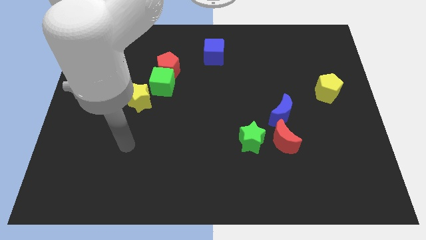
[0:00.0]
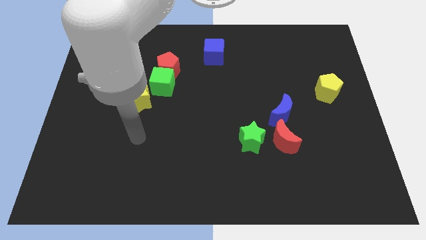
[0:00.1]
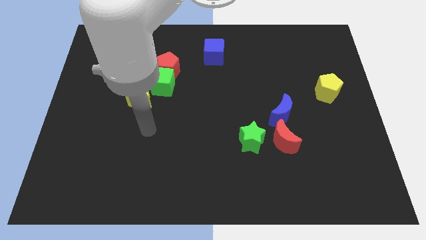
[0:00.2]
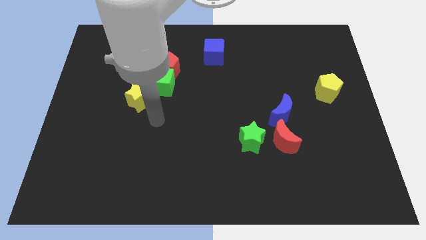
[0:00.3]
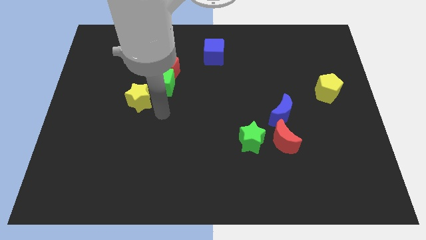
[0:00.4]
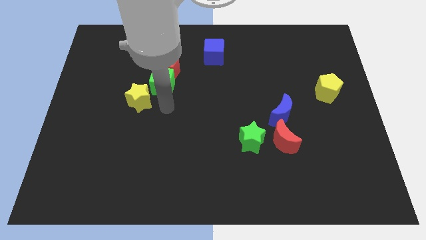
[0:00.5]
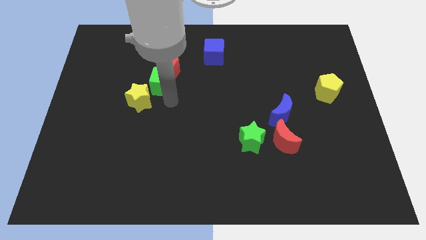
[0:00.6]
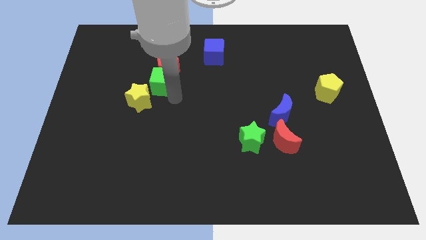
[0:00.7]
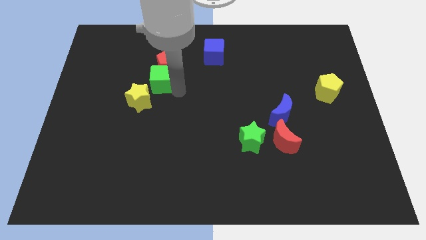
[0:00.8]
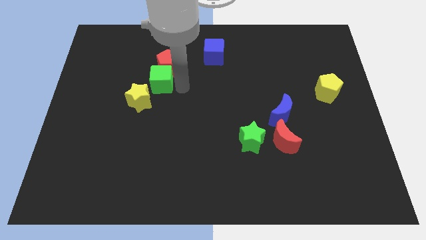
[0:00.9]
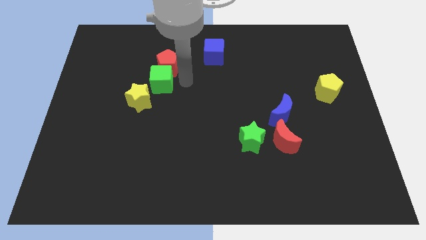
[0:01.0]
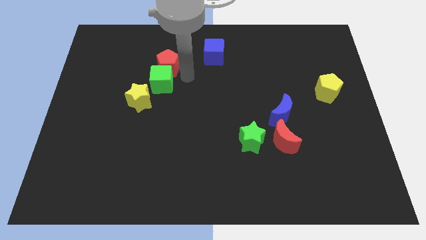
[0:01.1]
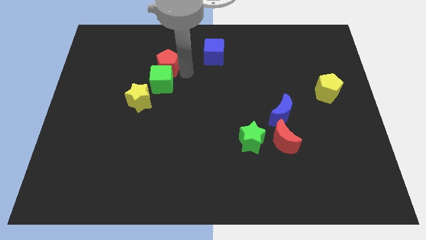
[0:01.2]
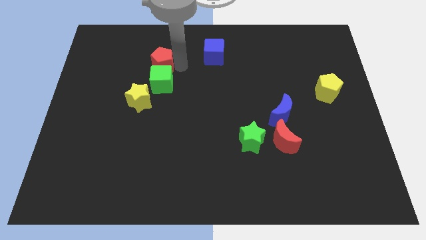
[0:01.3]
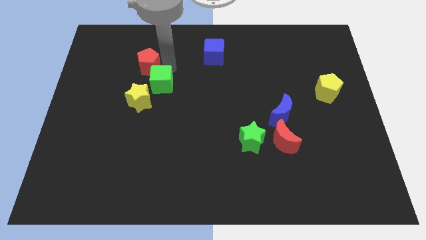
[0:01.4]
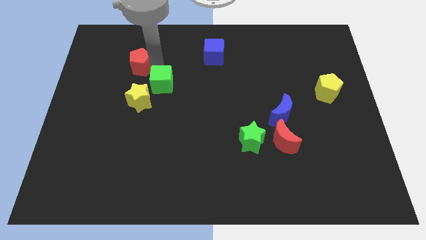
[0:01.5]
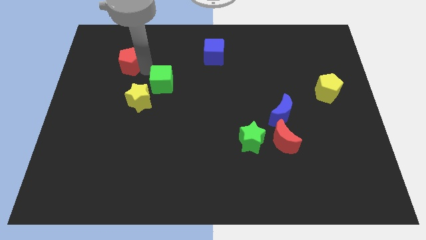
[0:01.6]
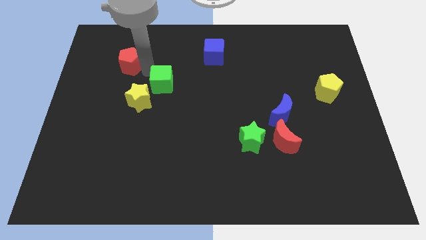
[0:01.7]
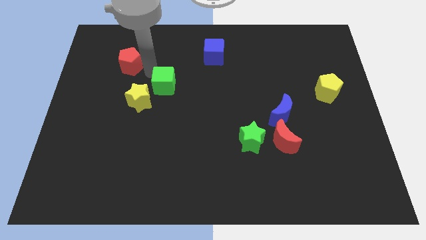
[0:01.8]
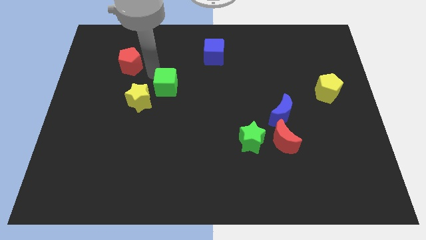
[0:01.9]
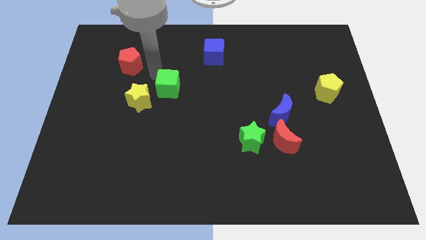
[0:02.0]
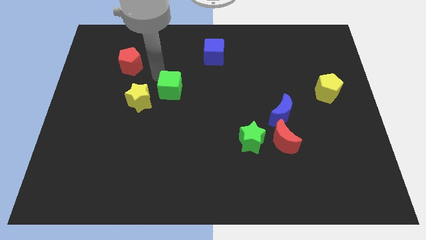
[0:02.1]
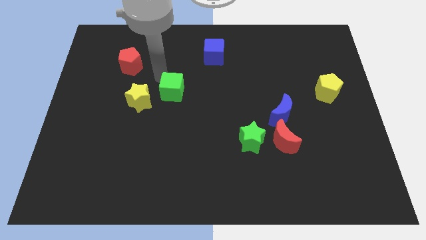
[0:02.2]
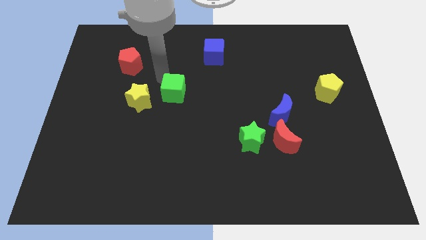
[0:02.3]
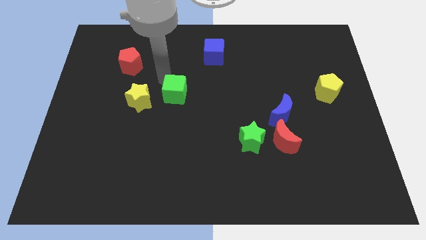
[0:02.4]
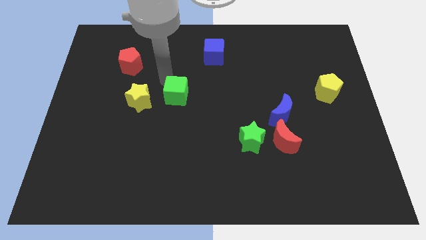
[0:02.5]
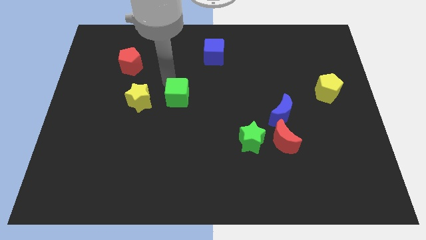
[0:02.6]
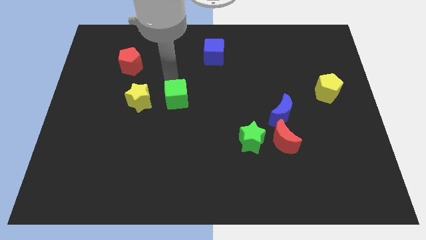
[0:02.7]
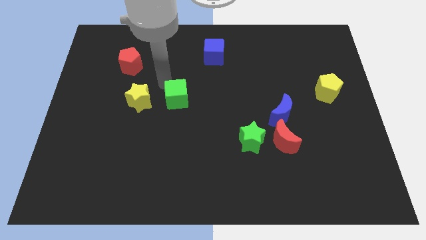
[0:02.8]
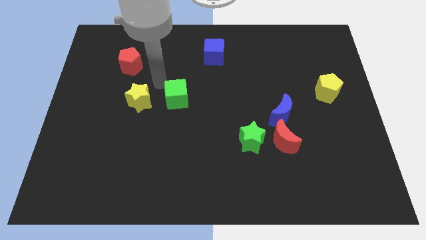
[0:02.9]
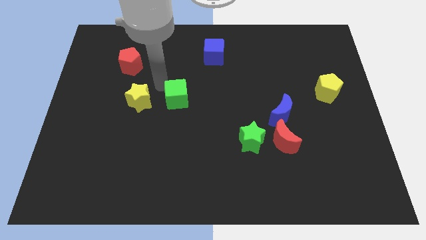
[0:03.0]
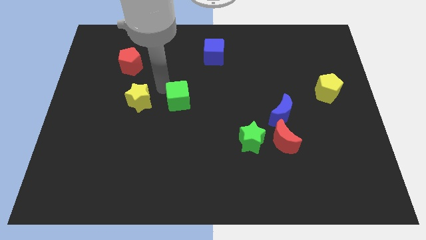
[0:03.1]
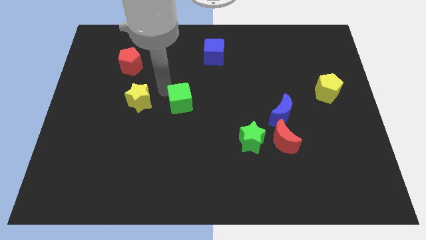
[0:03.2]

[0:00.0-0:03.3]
slightly move the green cube diagonally down and to the right

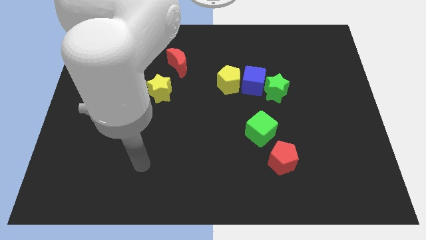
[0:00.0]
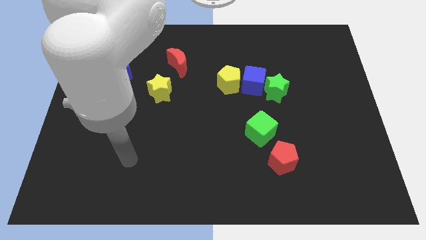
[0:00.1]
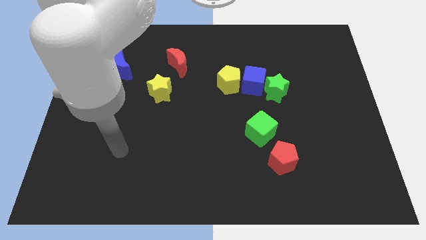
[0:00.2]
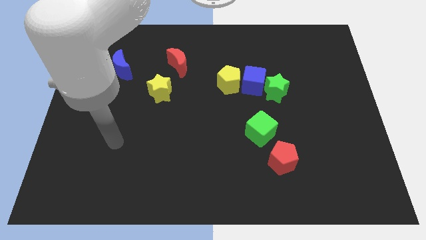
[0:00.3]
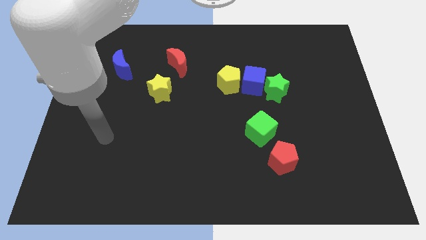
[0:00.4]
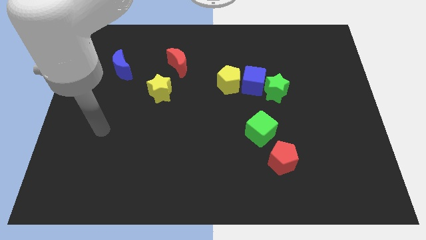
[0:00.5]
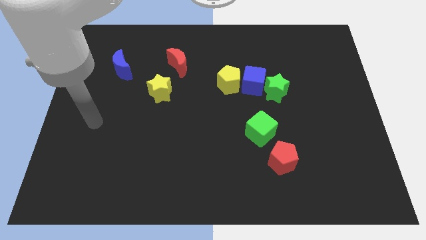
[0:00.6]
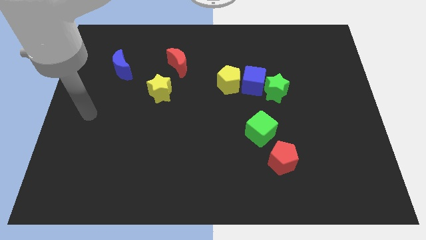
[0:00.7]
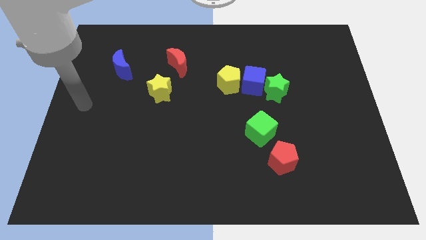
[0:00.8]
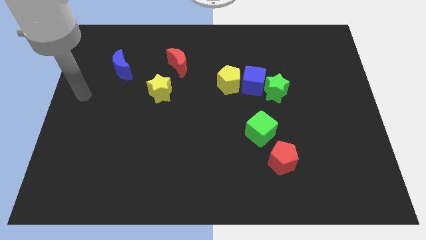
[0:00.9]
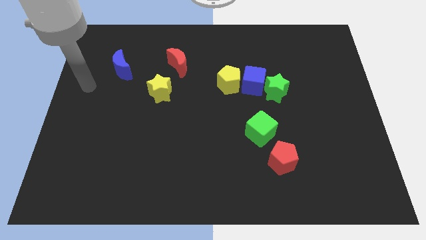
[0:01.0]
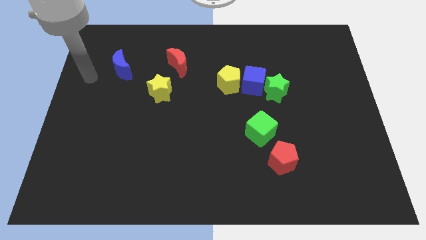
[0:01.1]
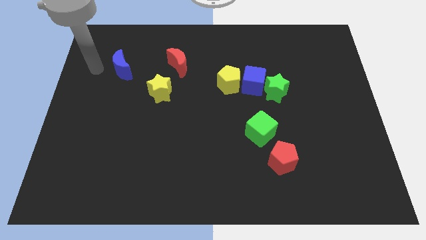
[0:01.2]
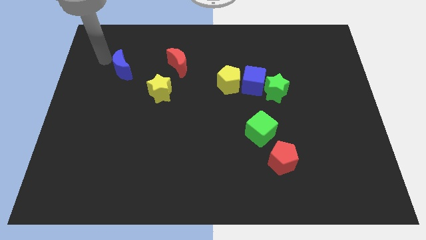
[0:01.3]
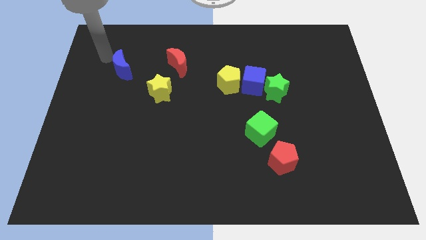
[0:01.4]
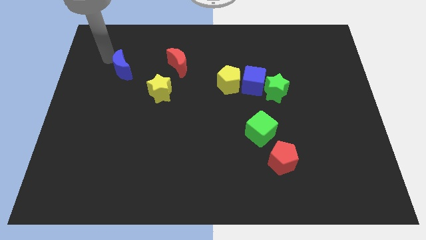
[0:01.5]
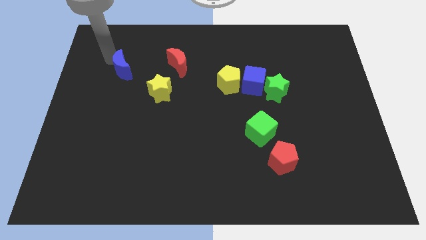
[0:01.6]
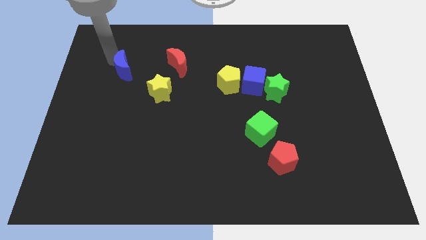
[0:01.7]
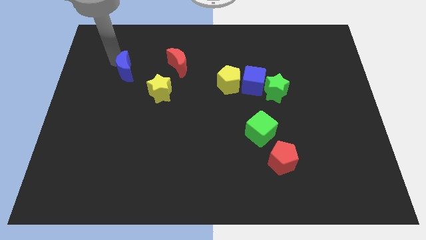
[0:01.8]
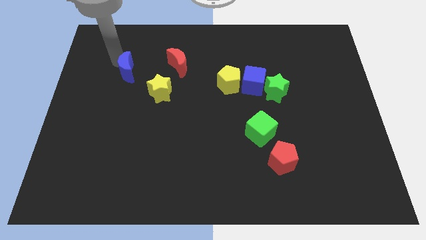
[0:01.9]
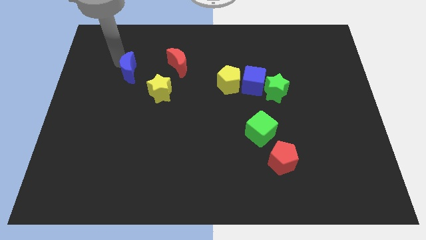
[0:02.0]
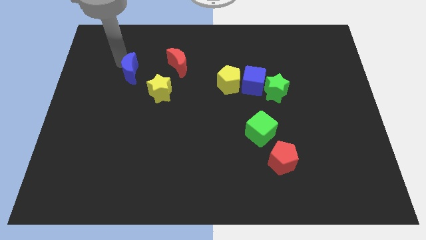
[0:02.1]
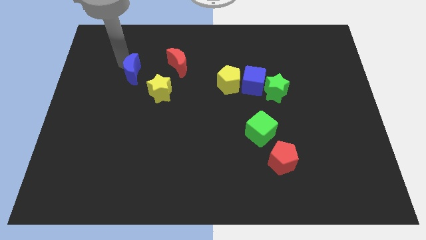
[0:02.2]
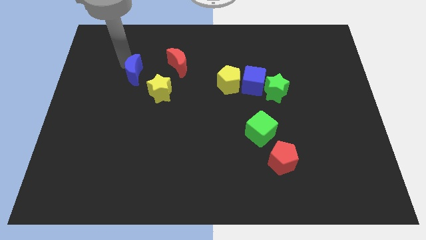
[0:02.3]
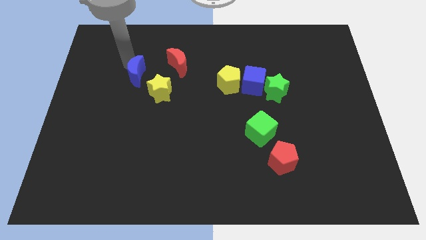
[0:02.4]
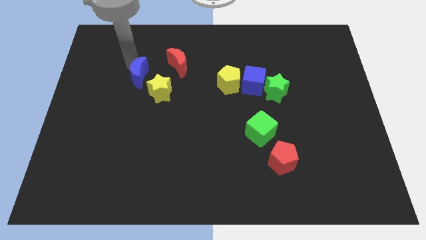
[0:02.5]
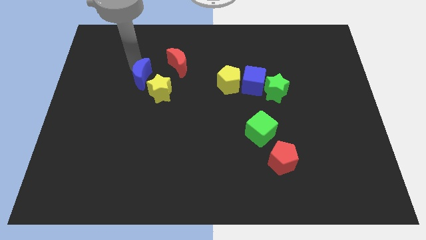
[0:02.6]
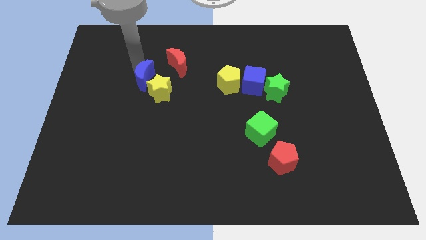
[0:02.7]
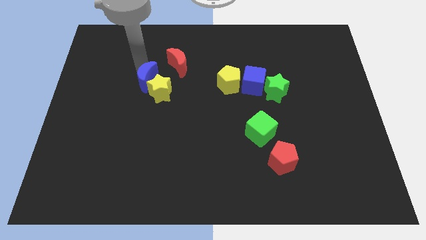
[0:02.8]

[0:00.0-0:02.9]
slide the blue moon a bit downwards and then right

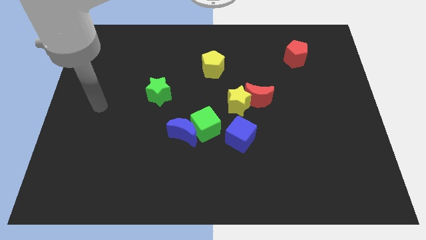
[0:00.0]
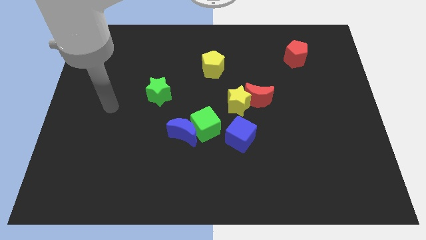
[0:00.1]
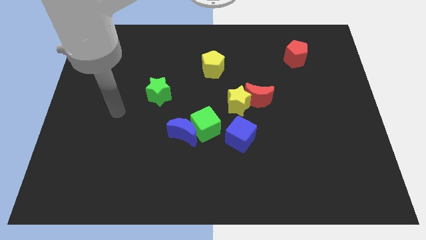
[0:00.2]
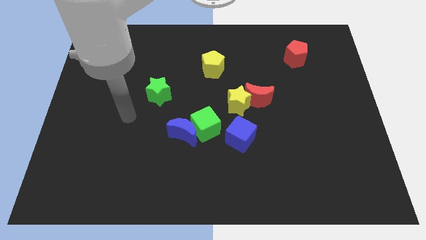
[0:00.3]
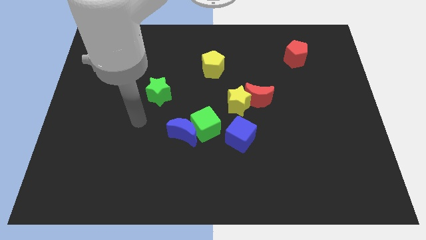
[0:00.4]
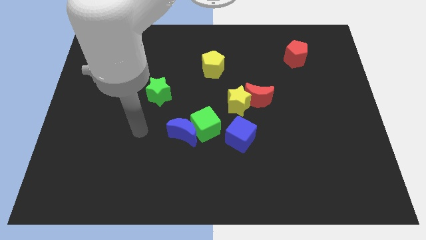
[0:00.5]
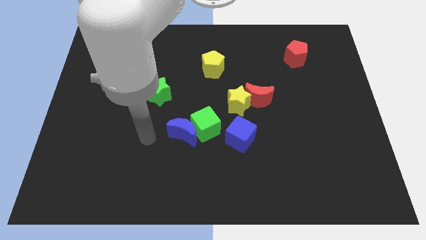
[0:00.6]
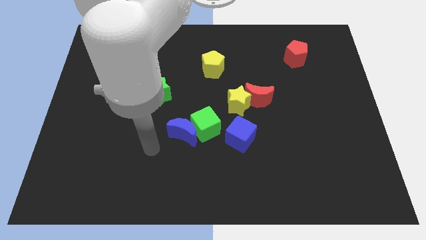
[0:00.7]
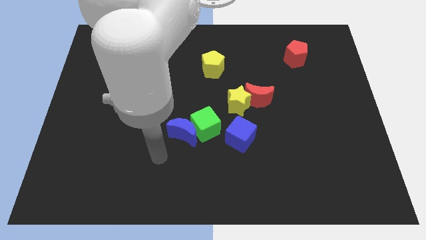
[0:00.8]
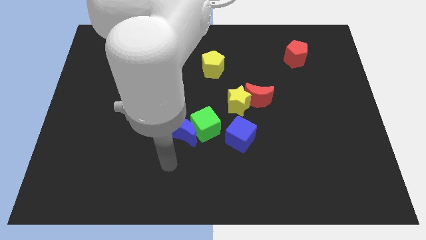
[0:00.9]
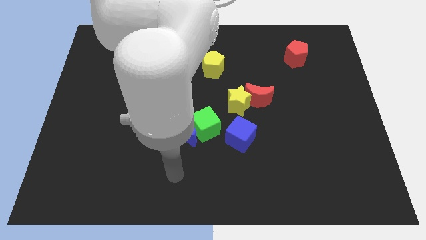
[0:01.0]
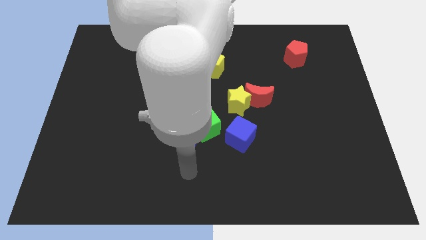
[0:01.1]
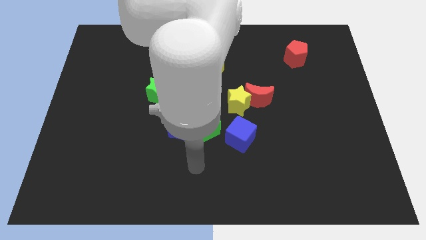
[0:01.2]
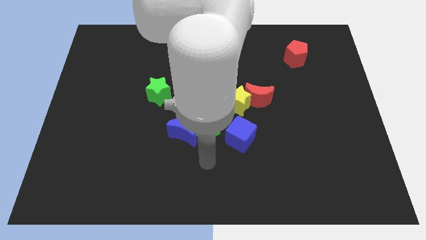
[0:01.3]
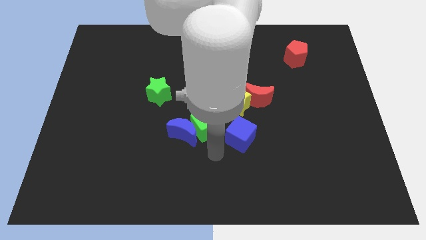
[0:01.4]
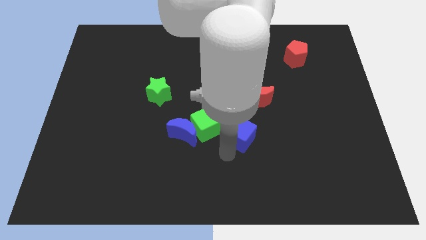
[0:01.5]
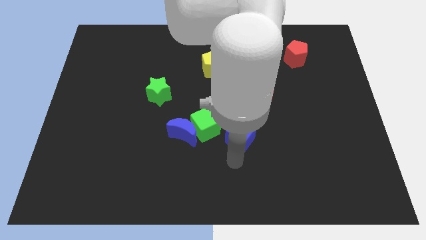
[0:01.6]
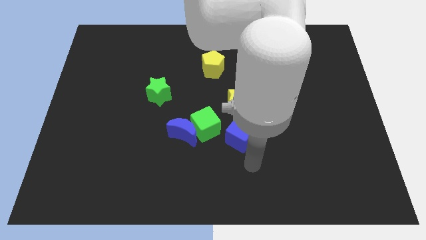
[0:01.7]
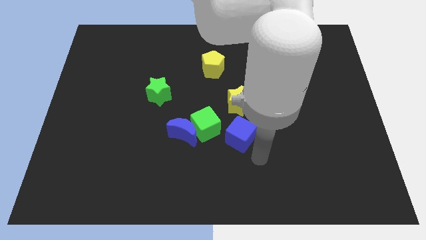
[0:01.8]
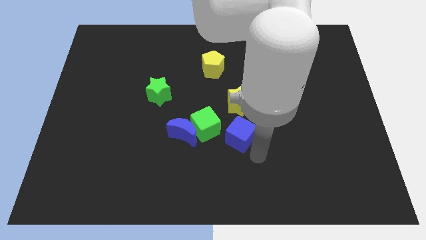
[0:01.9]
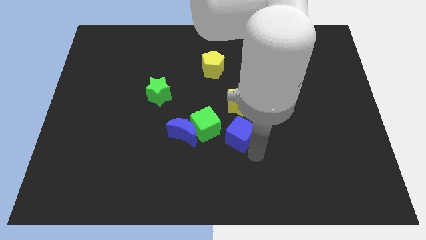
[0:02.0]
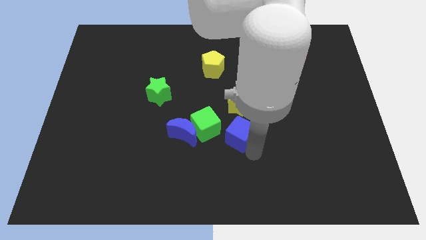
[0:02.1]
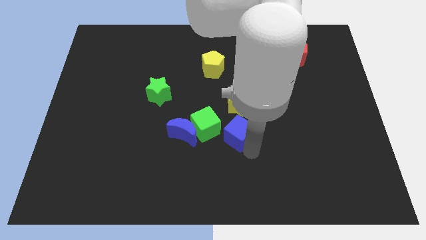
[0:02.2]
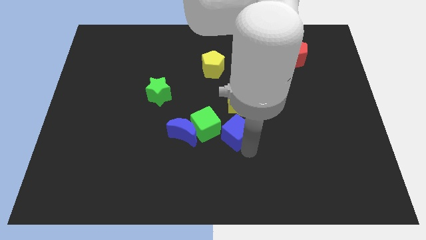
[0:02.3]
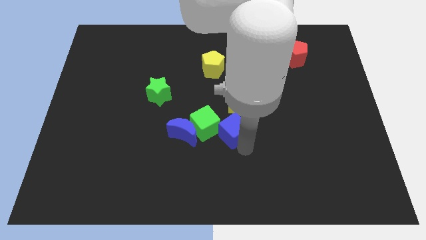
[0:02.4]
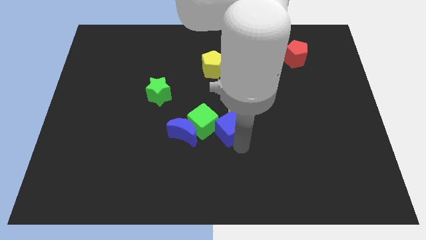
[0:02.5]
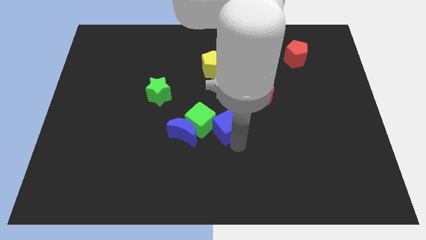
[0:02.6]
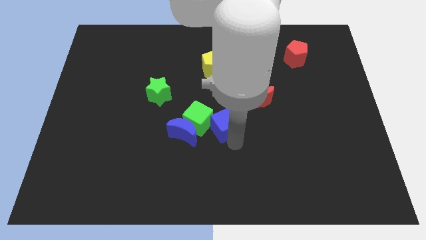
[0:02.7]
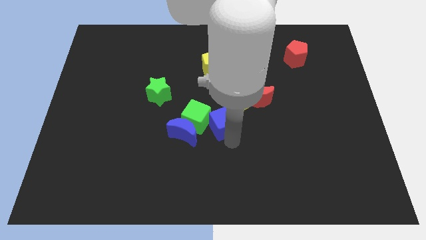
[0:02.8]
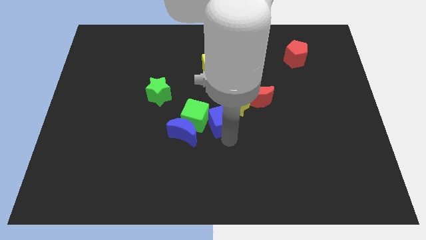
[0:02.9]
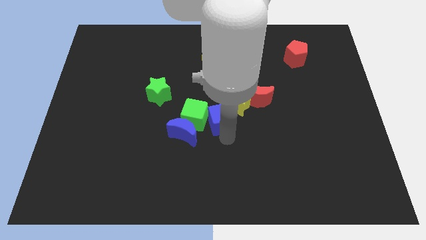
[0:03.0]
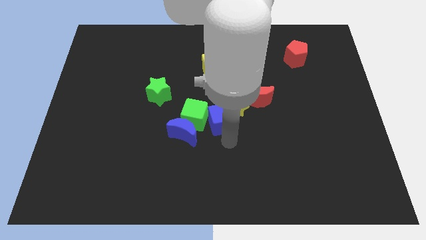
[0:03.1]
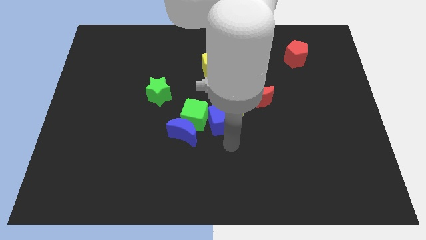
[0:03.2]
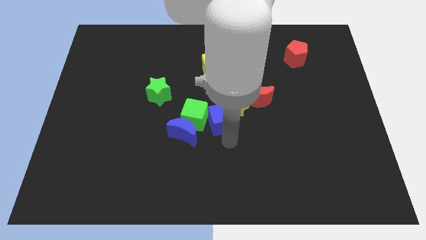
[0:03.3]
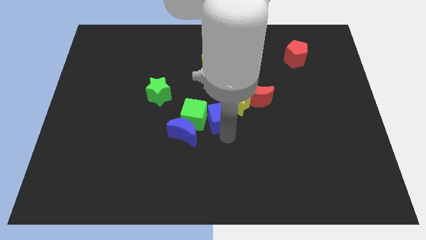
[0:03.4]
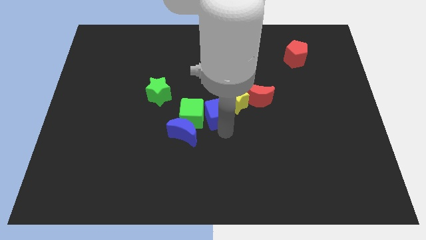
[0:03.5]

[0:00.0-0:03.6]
move the blue cube upwards and to the left diagonally a bit
